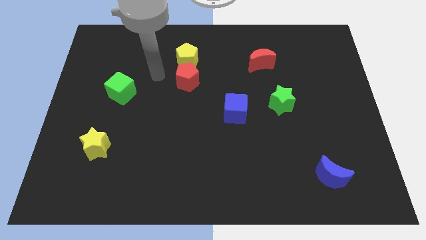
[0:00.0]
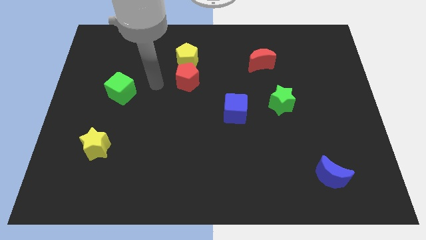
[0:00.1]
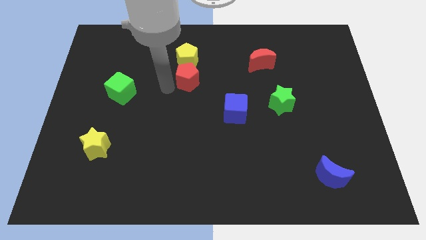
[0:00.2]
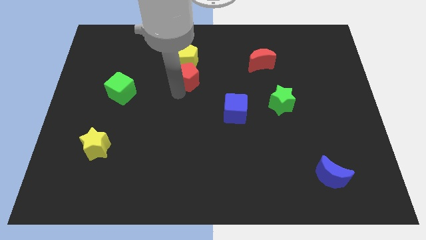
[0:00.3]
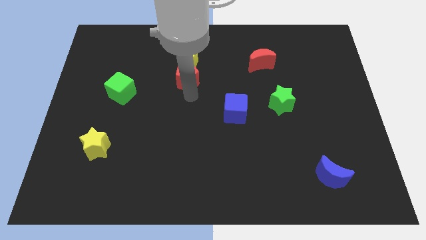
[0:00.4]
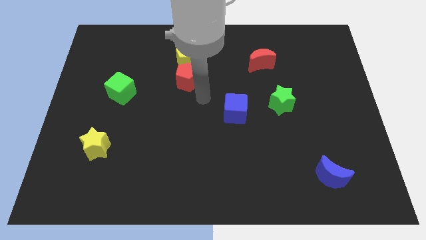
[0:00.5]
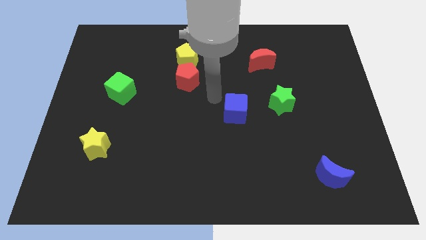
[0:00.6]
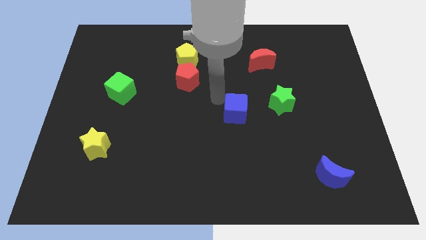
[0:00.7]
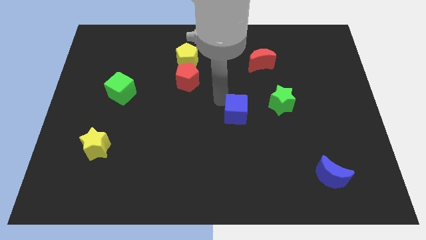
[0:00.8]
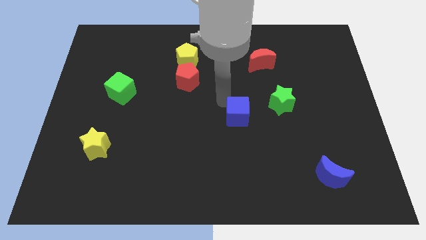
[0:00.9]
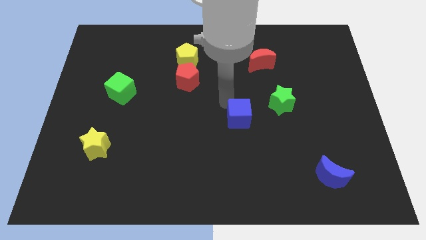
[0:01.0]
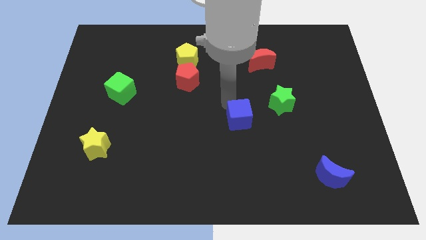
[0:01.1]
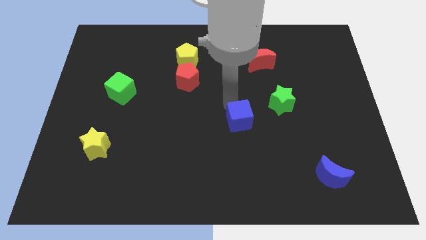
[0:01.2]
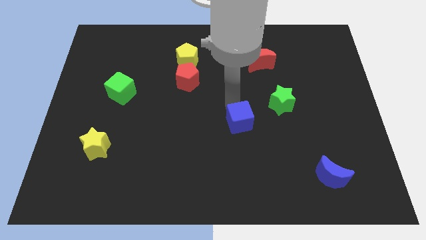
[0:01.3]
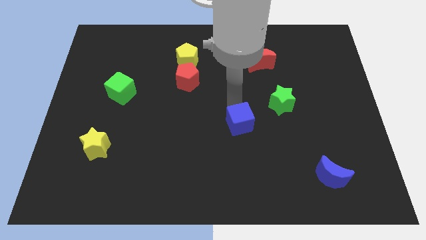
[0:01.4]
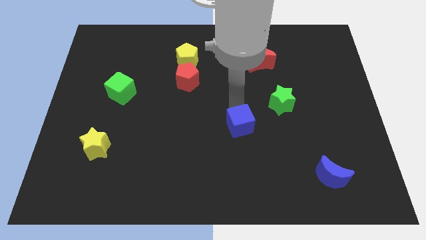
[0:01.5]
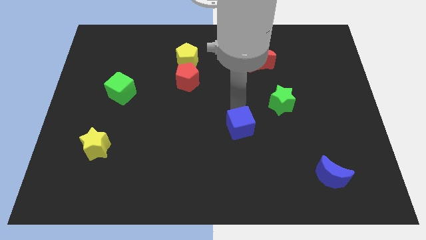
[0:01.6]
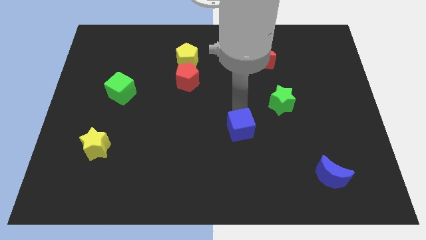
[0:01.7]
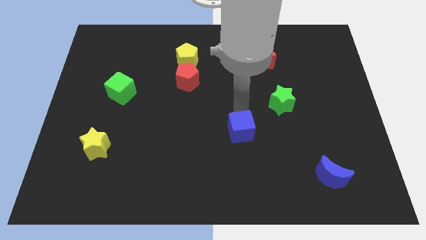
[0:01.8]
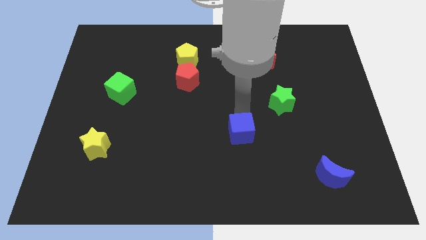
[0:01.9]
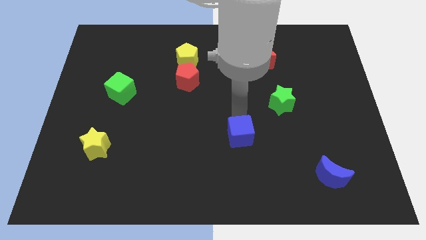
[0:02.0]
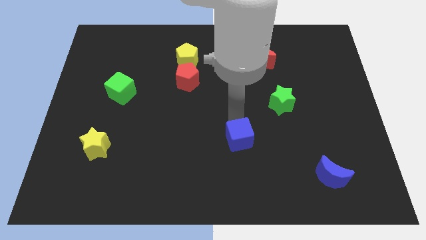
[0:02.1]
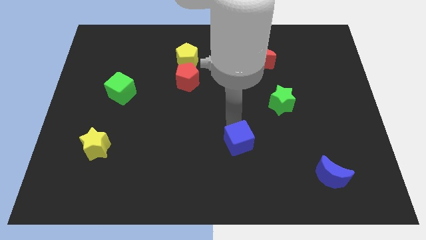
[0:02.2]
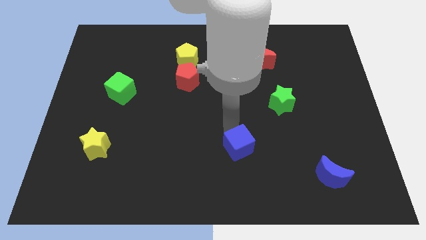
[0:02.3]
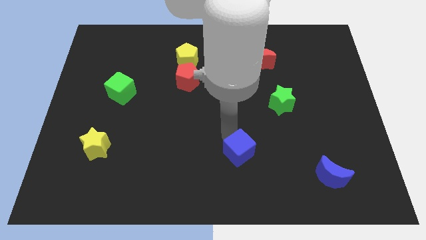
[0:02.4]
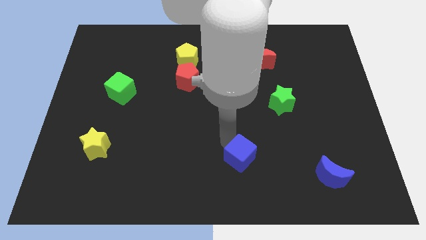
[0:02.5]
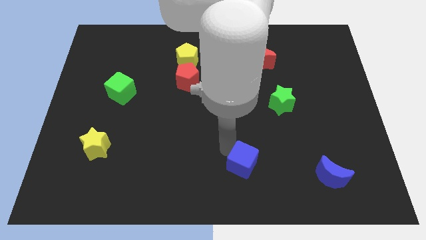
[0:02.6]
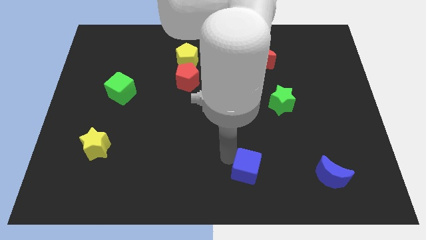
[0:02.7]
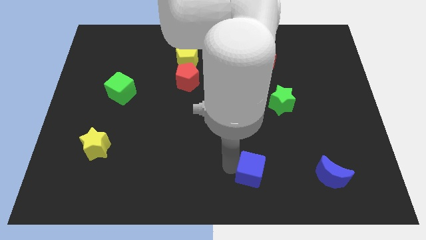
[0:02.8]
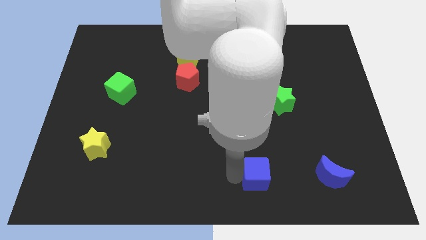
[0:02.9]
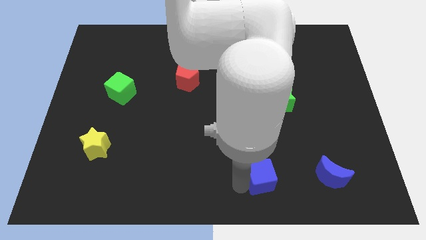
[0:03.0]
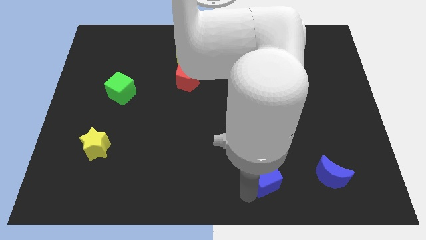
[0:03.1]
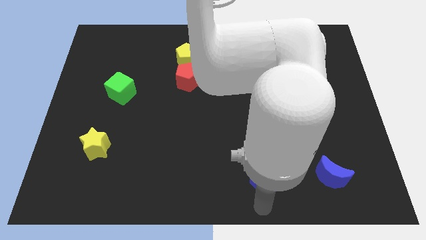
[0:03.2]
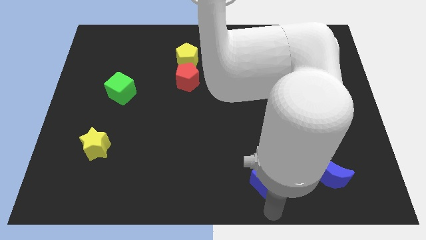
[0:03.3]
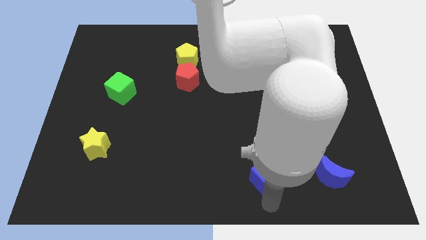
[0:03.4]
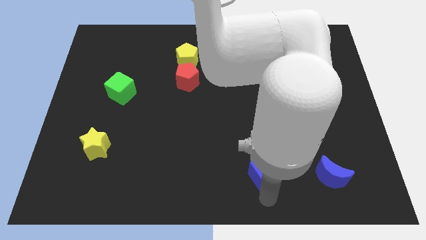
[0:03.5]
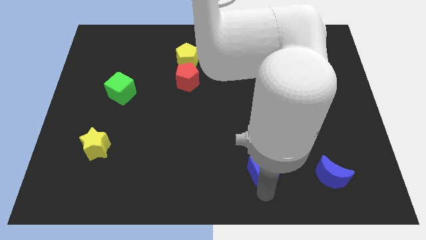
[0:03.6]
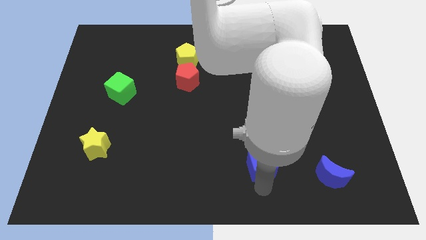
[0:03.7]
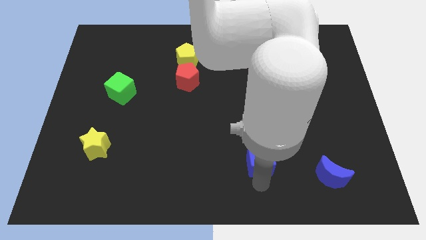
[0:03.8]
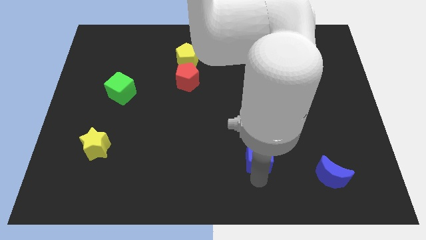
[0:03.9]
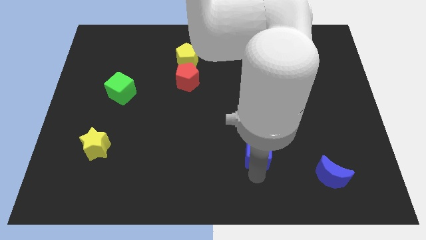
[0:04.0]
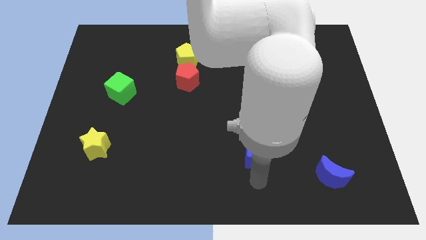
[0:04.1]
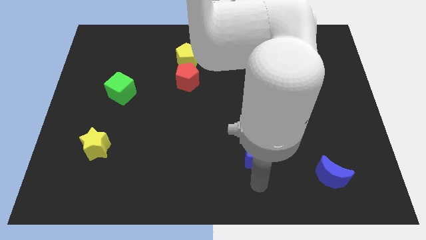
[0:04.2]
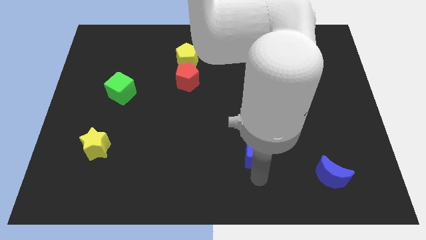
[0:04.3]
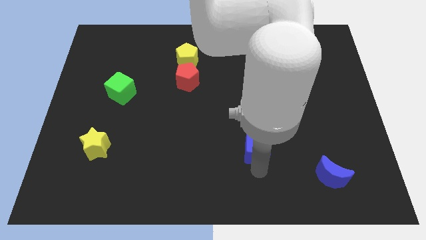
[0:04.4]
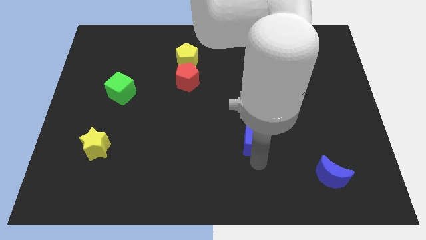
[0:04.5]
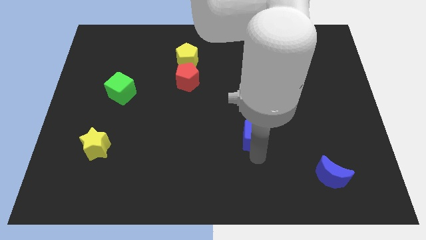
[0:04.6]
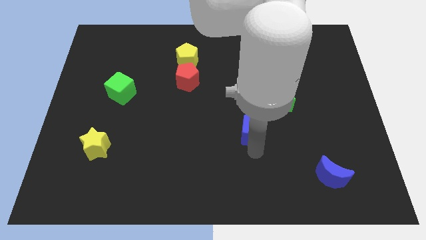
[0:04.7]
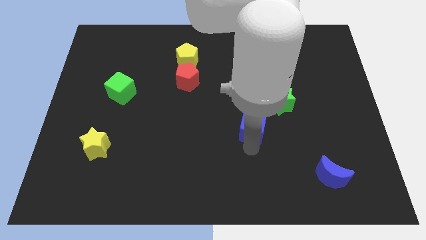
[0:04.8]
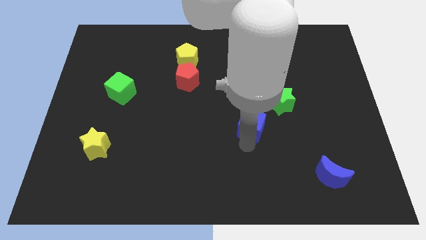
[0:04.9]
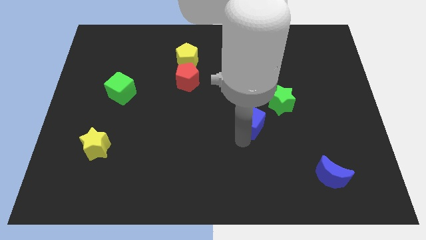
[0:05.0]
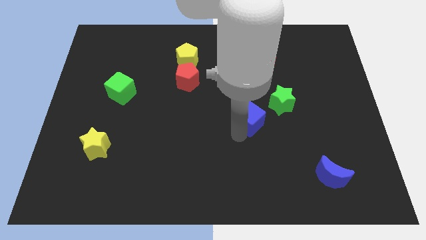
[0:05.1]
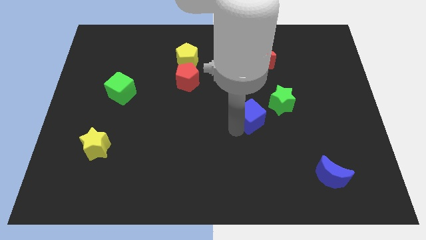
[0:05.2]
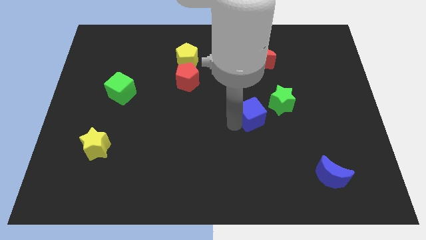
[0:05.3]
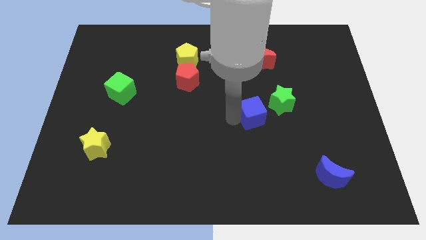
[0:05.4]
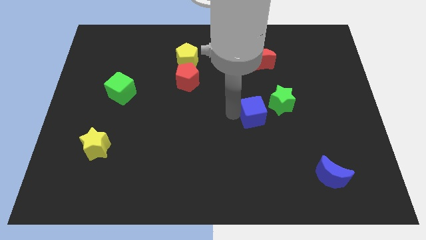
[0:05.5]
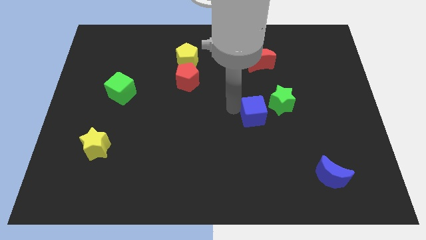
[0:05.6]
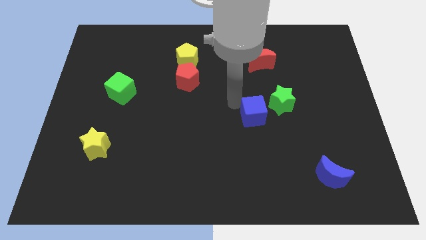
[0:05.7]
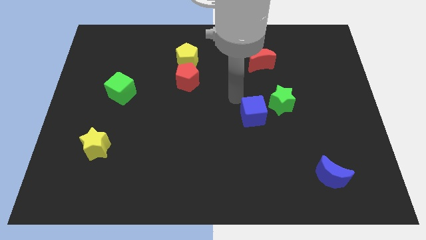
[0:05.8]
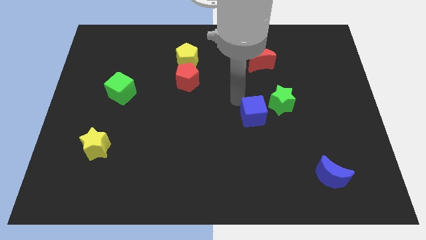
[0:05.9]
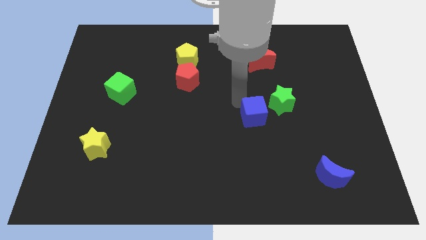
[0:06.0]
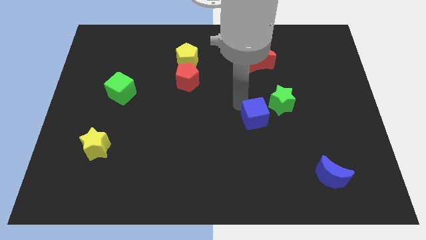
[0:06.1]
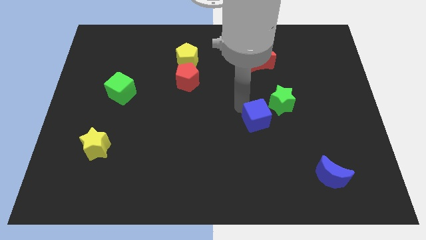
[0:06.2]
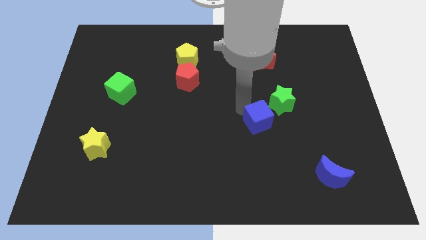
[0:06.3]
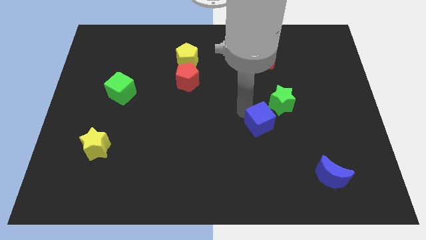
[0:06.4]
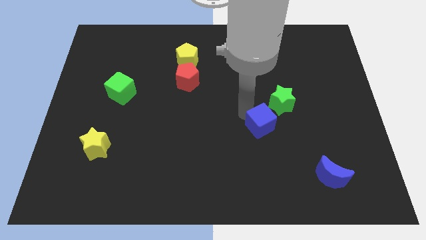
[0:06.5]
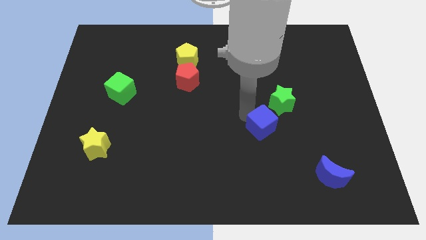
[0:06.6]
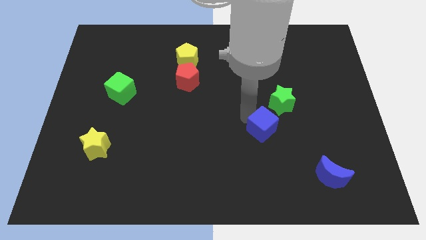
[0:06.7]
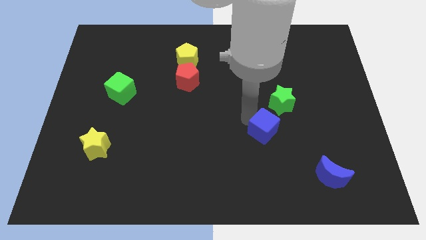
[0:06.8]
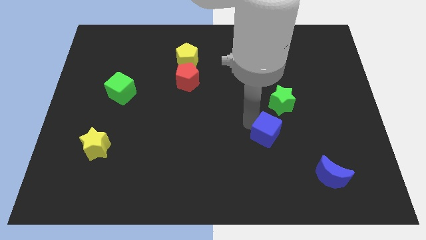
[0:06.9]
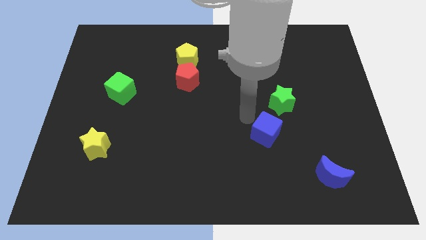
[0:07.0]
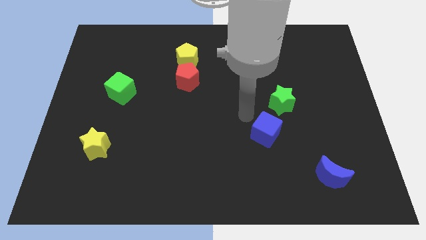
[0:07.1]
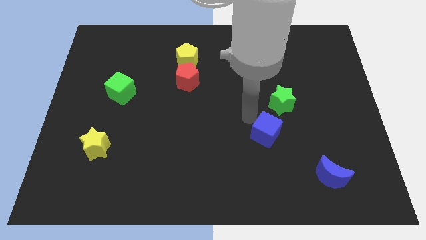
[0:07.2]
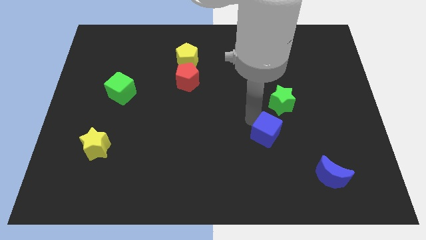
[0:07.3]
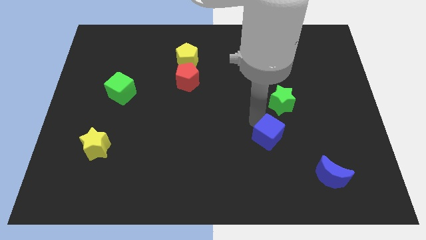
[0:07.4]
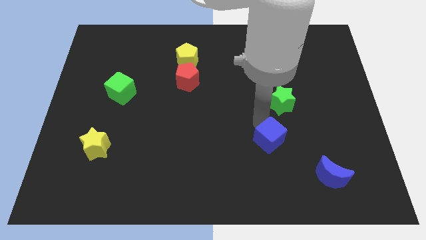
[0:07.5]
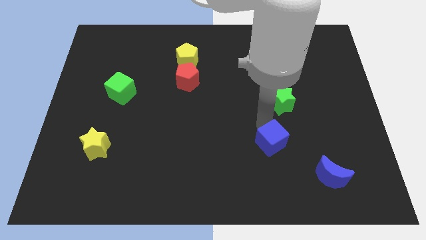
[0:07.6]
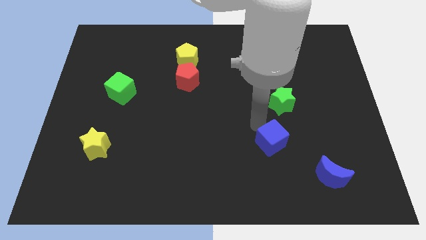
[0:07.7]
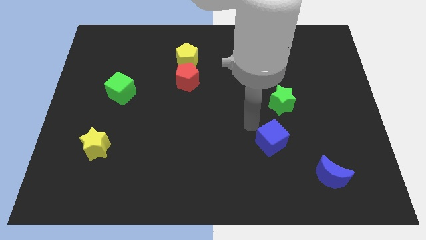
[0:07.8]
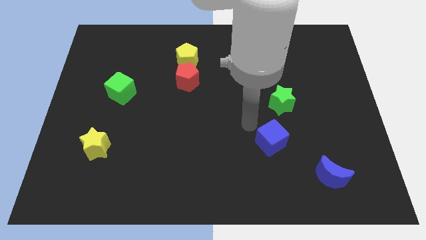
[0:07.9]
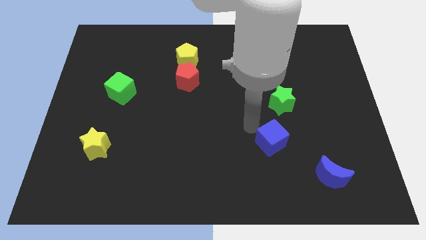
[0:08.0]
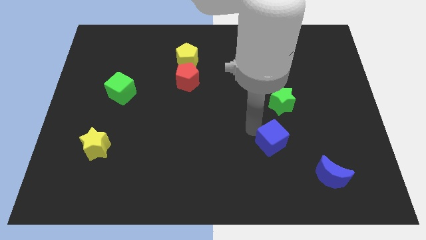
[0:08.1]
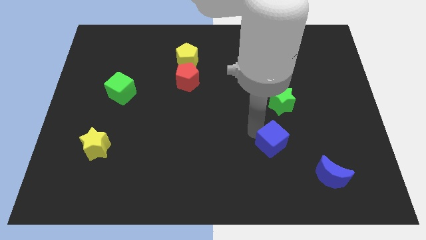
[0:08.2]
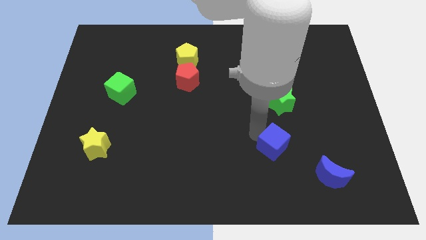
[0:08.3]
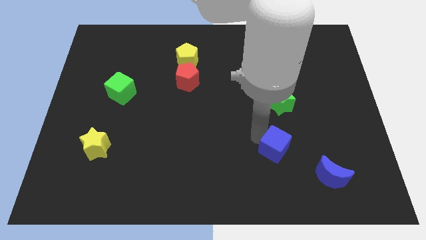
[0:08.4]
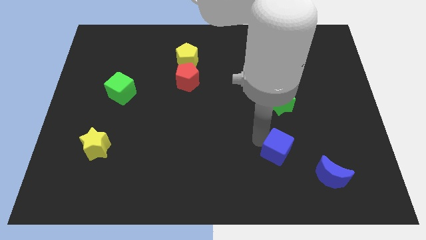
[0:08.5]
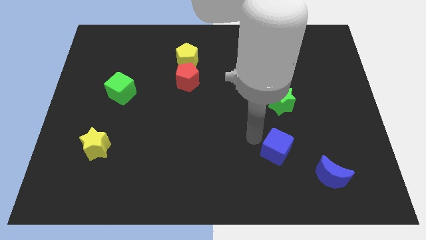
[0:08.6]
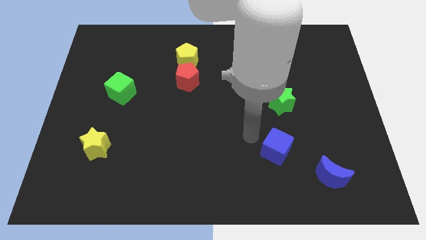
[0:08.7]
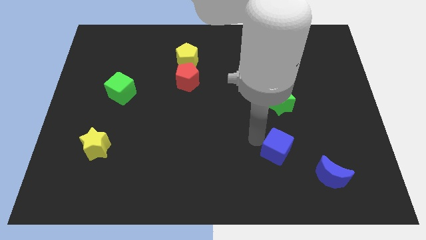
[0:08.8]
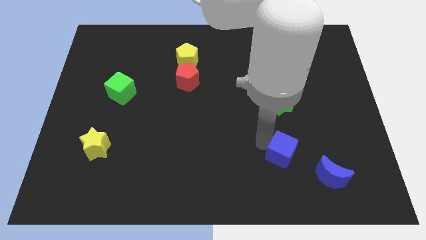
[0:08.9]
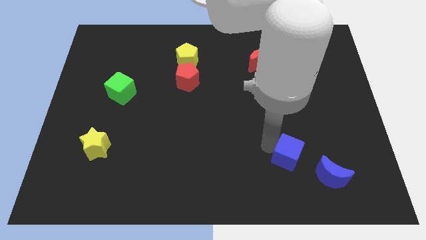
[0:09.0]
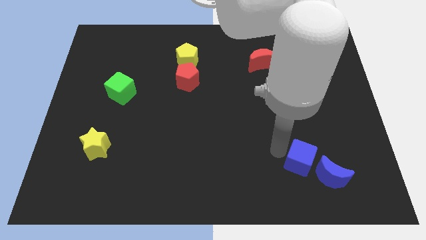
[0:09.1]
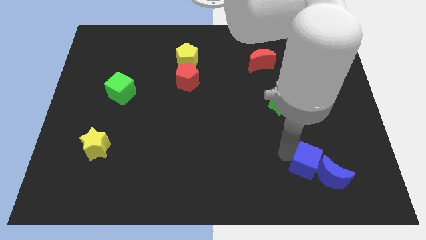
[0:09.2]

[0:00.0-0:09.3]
put the blue cube next to the blue moon
